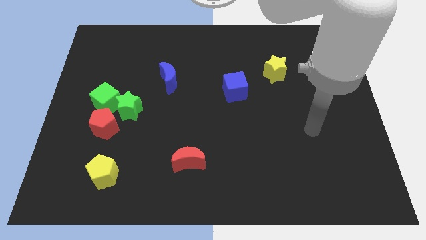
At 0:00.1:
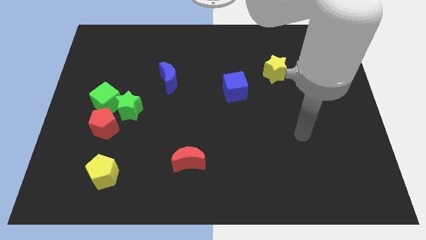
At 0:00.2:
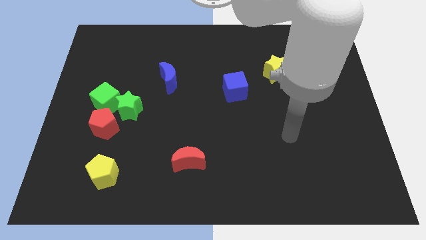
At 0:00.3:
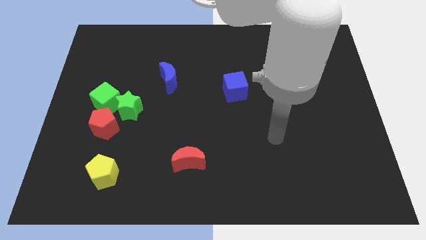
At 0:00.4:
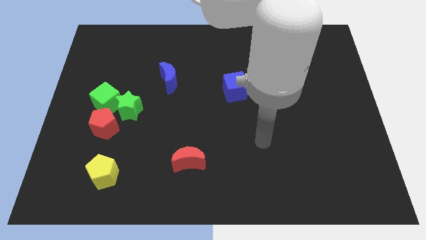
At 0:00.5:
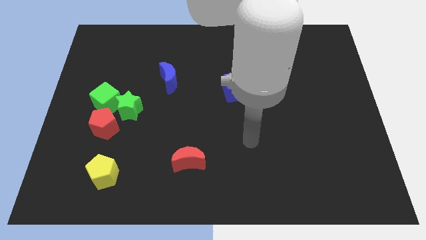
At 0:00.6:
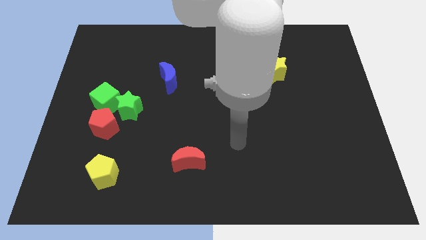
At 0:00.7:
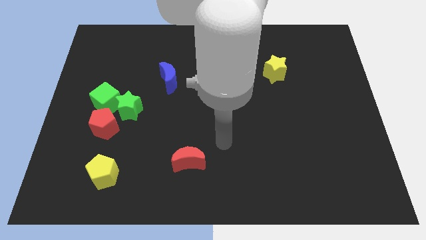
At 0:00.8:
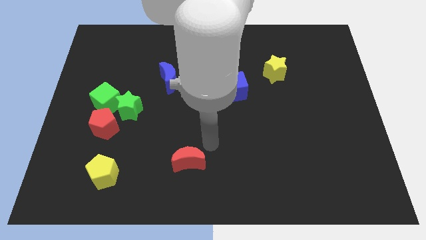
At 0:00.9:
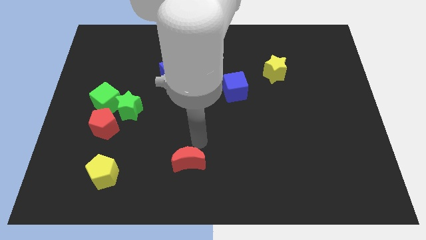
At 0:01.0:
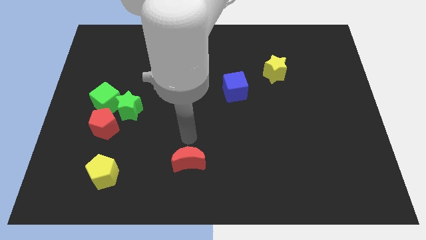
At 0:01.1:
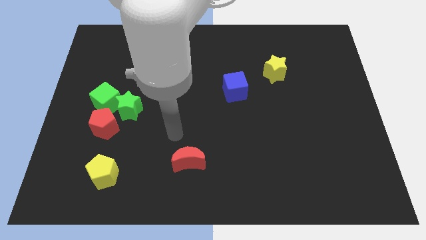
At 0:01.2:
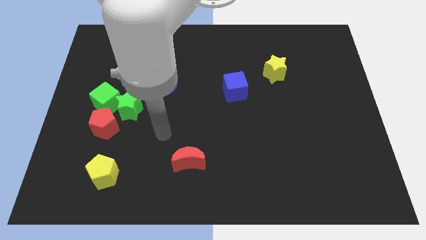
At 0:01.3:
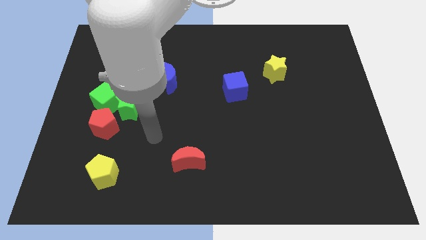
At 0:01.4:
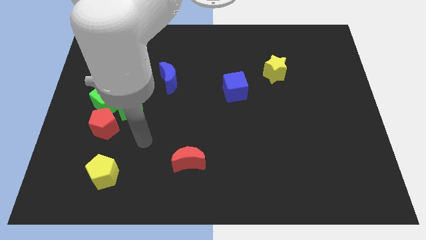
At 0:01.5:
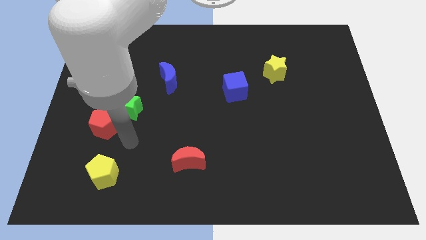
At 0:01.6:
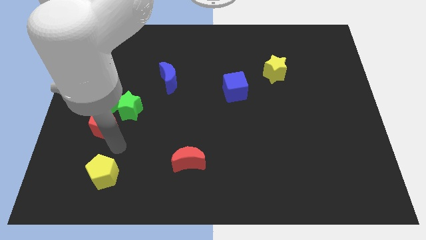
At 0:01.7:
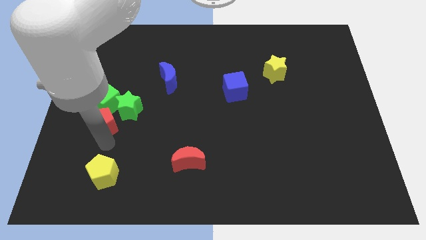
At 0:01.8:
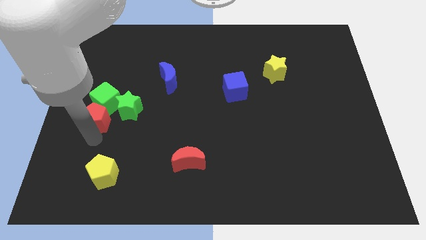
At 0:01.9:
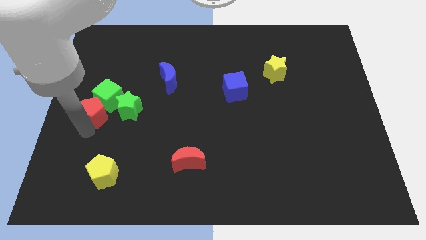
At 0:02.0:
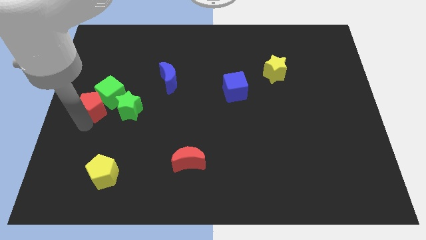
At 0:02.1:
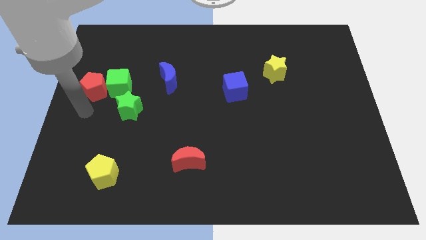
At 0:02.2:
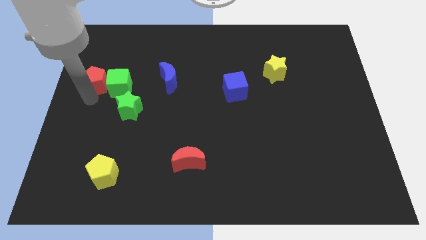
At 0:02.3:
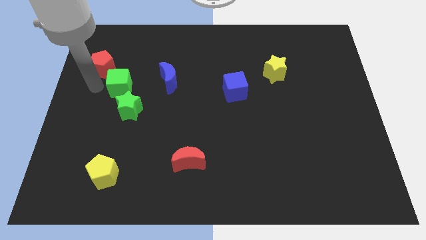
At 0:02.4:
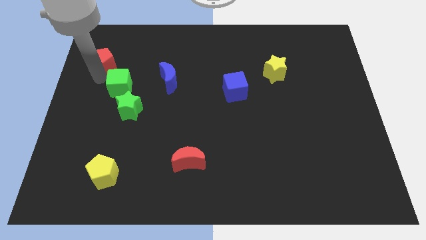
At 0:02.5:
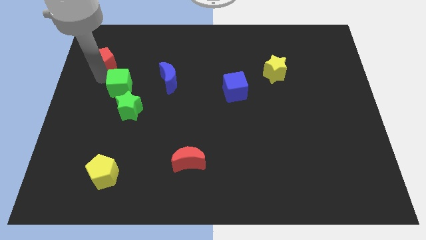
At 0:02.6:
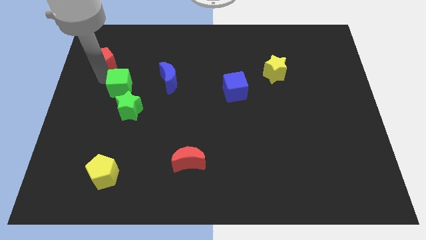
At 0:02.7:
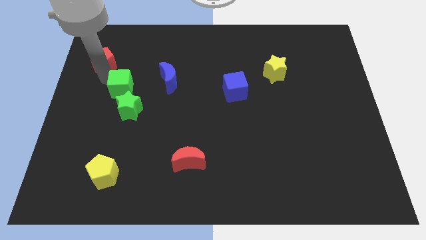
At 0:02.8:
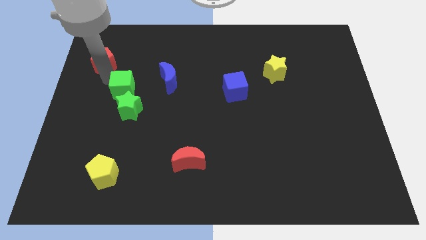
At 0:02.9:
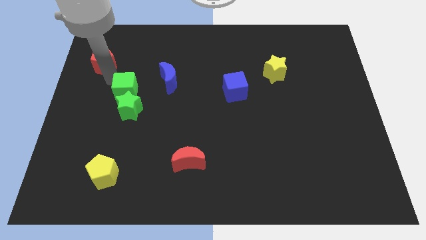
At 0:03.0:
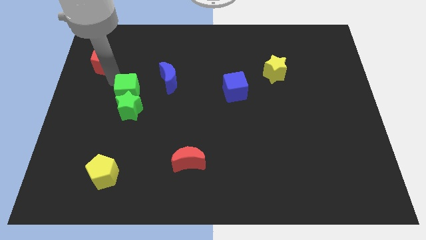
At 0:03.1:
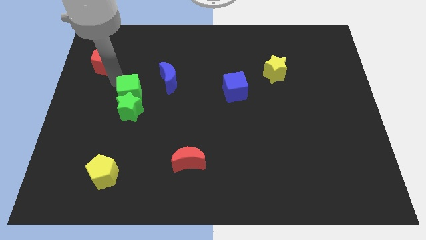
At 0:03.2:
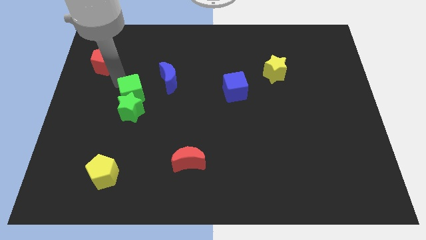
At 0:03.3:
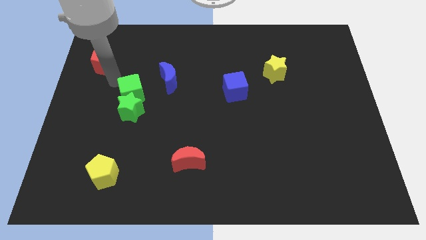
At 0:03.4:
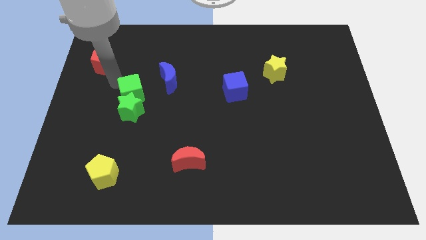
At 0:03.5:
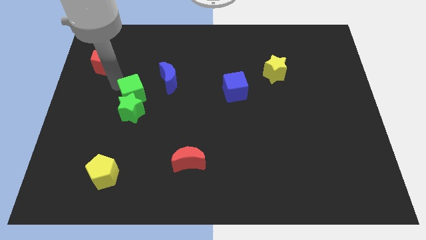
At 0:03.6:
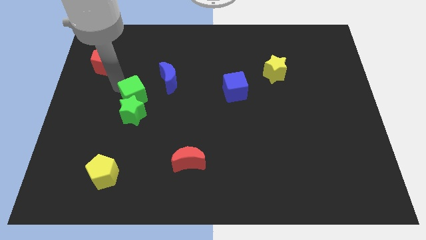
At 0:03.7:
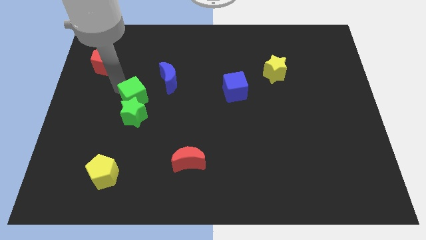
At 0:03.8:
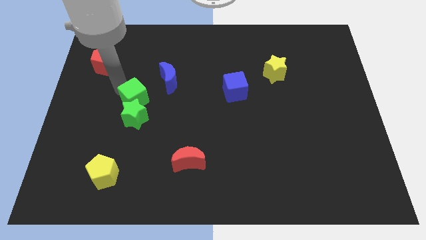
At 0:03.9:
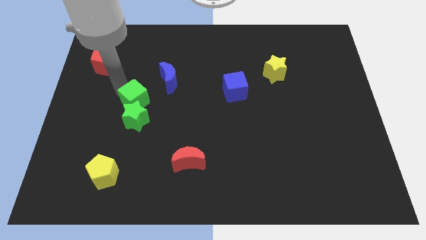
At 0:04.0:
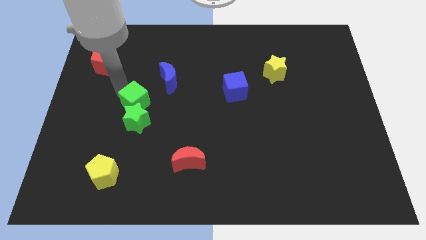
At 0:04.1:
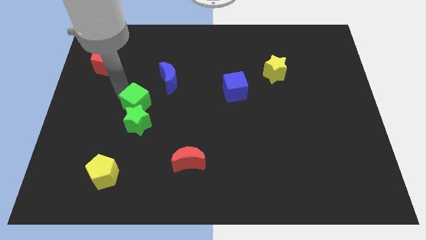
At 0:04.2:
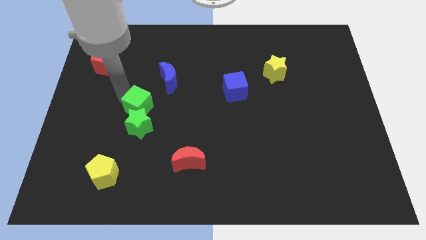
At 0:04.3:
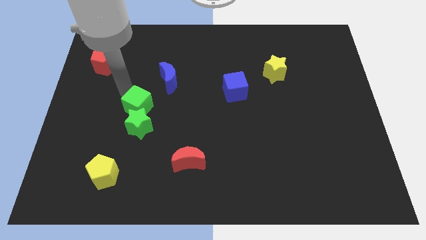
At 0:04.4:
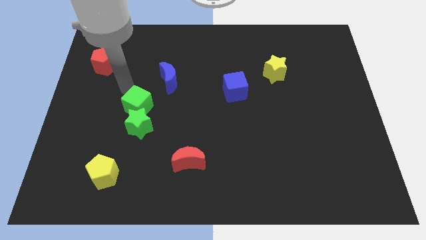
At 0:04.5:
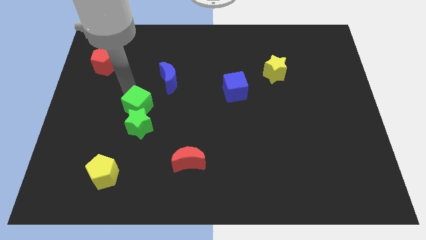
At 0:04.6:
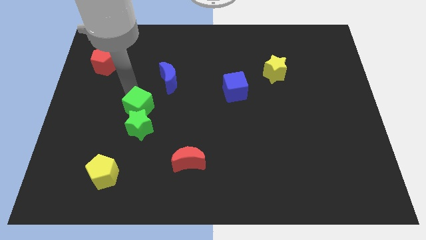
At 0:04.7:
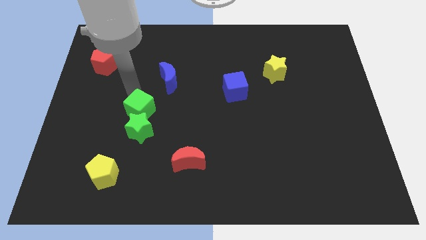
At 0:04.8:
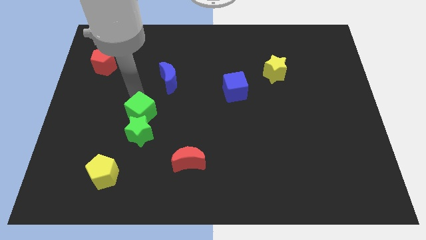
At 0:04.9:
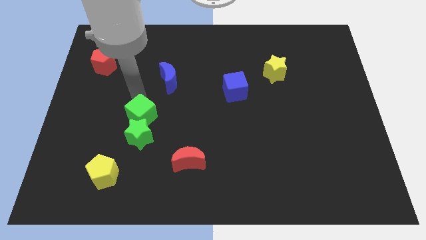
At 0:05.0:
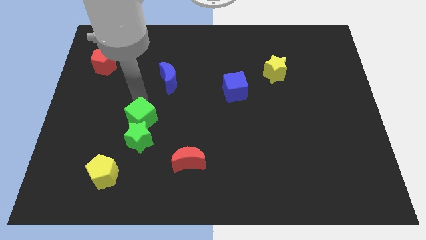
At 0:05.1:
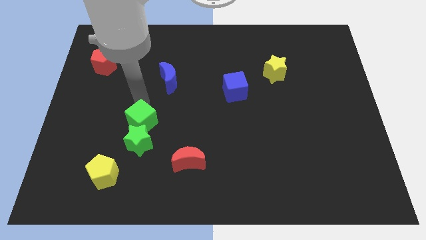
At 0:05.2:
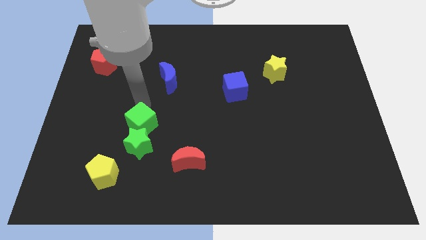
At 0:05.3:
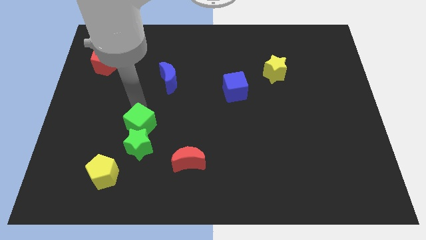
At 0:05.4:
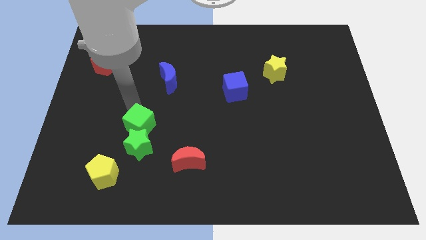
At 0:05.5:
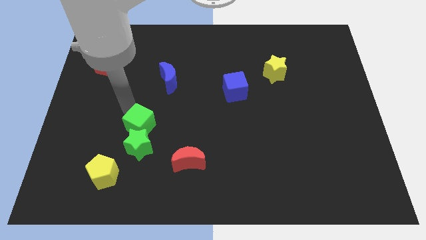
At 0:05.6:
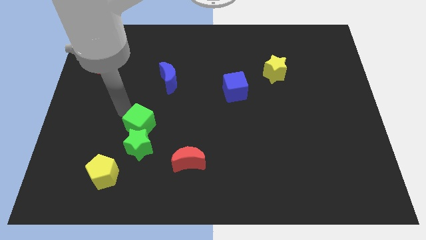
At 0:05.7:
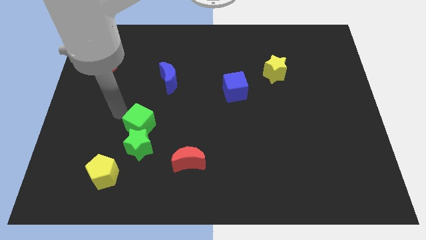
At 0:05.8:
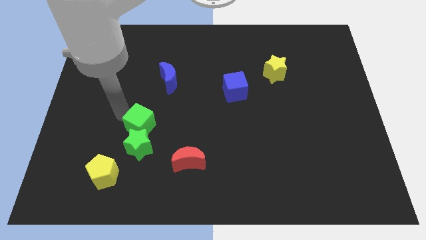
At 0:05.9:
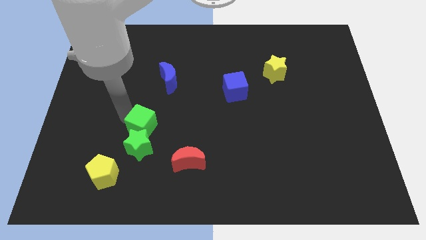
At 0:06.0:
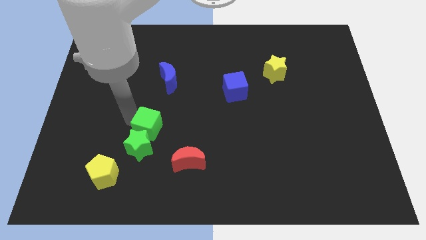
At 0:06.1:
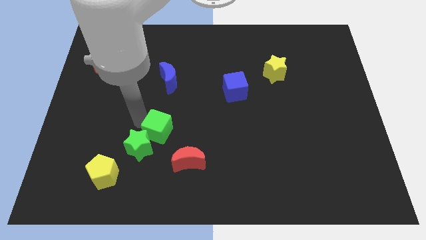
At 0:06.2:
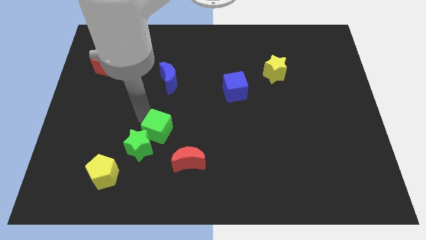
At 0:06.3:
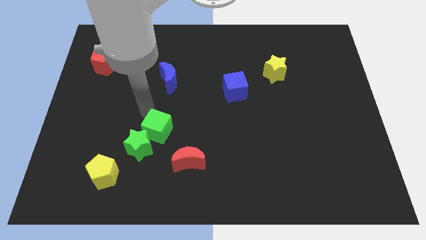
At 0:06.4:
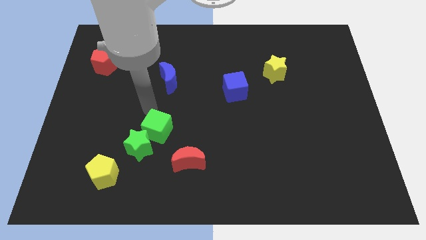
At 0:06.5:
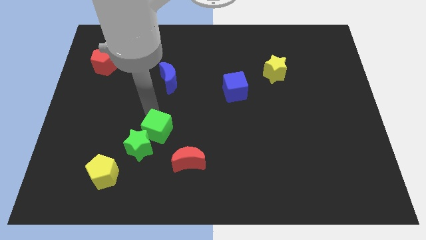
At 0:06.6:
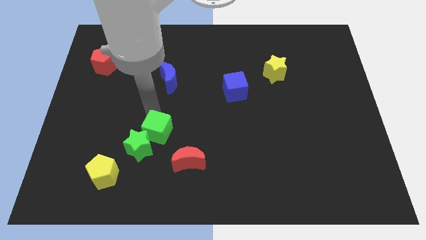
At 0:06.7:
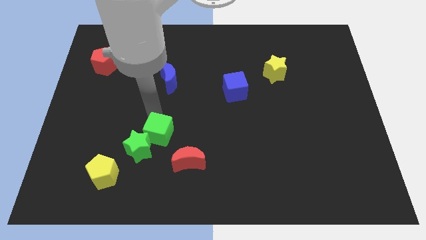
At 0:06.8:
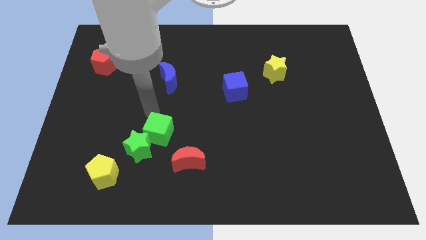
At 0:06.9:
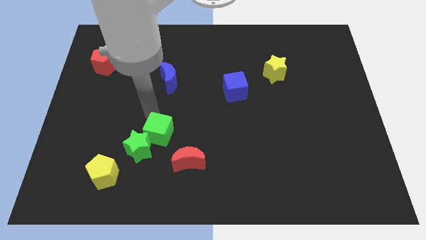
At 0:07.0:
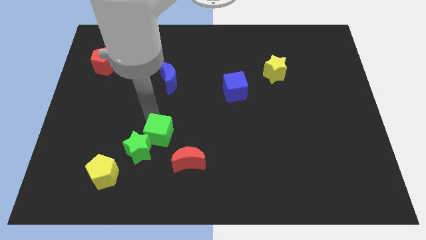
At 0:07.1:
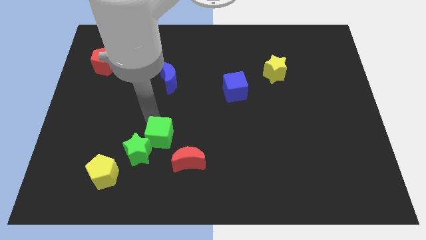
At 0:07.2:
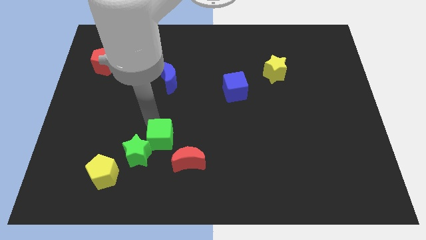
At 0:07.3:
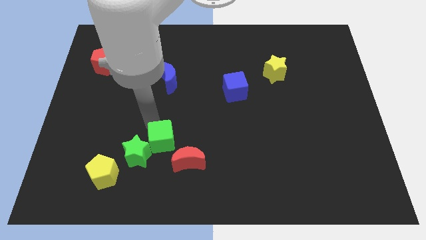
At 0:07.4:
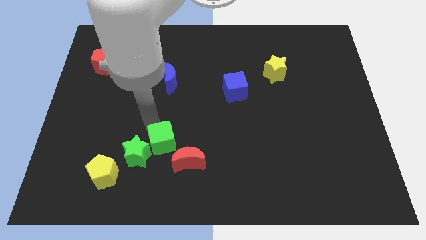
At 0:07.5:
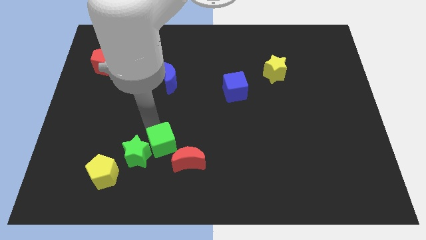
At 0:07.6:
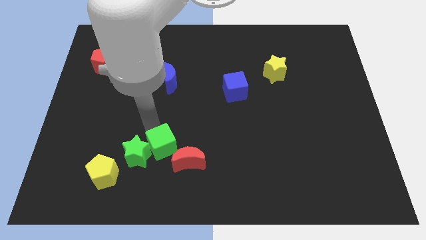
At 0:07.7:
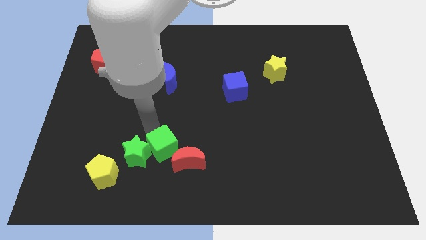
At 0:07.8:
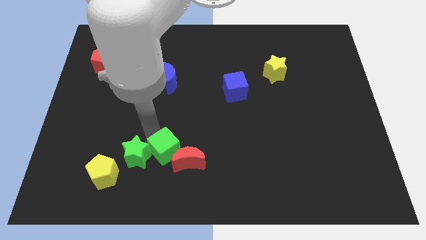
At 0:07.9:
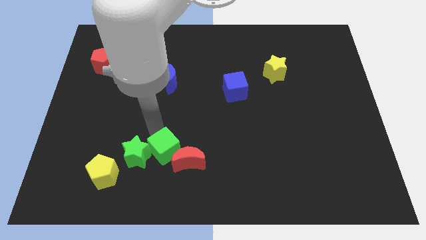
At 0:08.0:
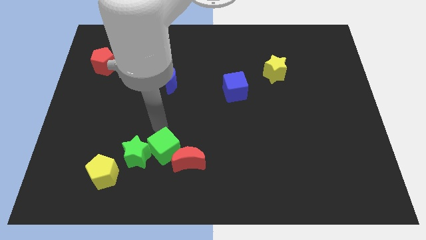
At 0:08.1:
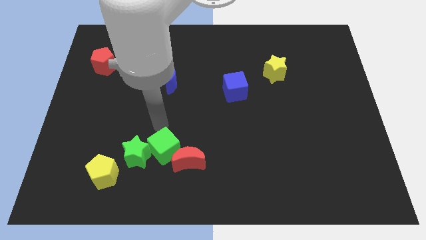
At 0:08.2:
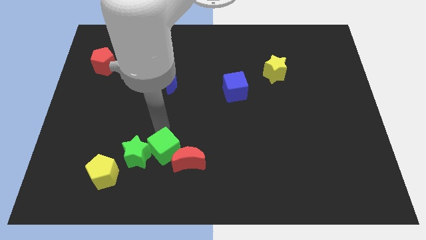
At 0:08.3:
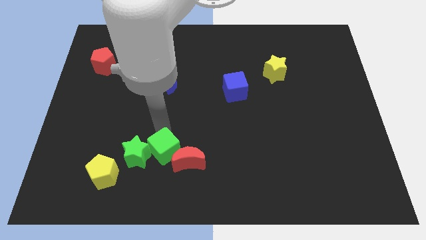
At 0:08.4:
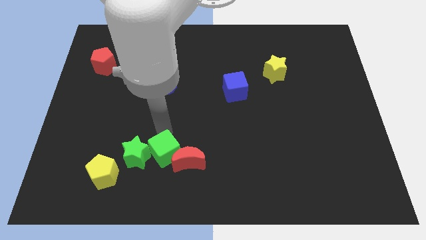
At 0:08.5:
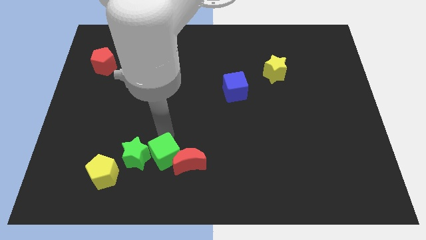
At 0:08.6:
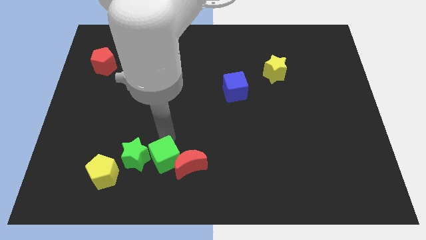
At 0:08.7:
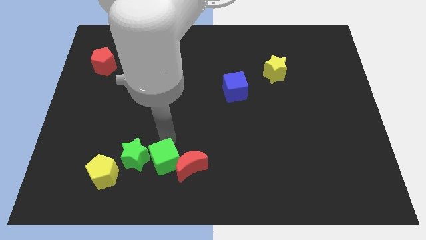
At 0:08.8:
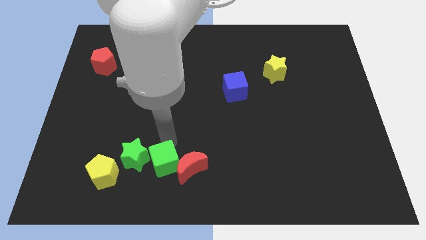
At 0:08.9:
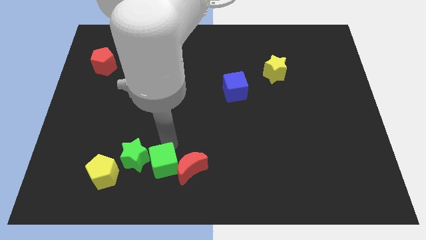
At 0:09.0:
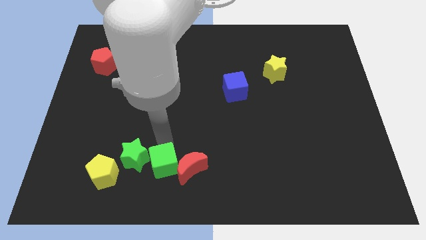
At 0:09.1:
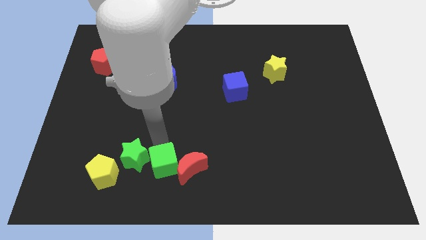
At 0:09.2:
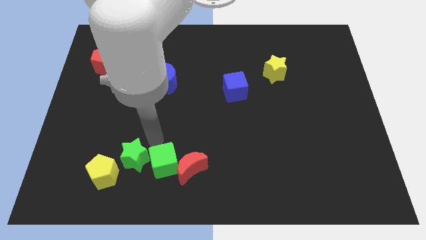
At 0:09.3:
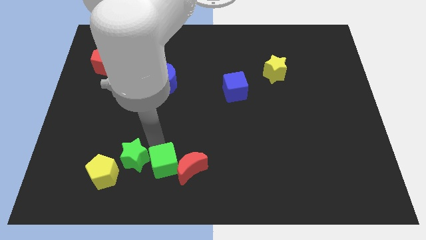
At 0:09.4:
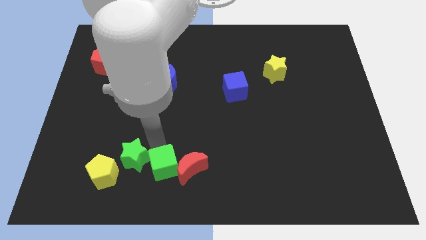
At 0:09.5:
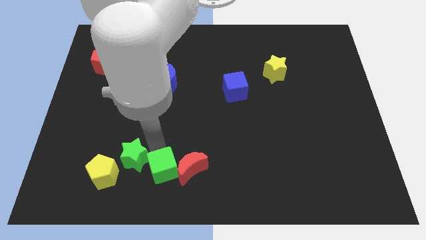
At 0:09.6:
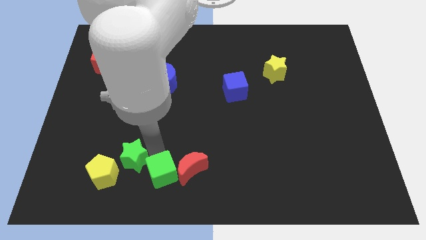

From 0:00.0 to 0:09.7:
put the green cube to the bottom side
